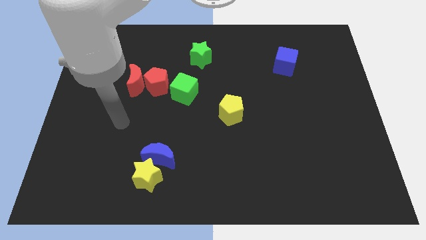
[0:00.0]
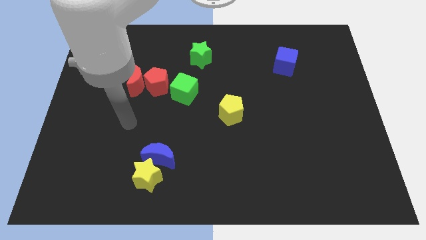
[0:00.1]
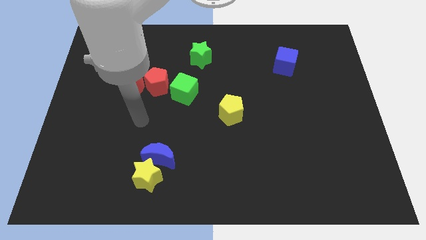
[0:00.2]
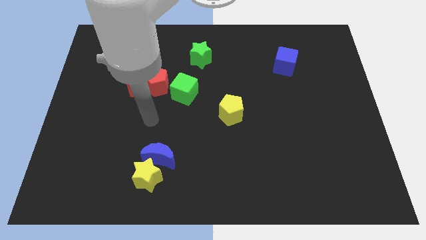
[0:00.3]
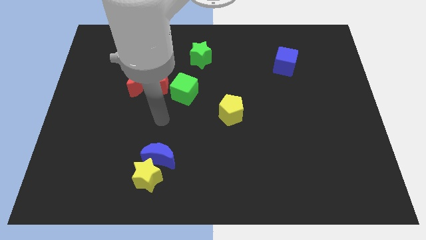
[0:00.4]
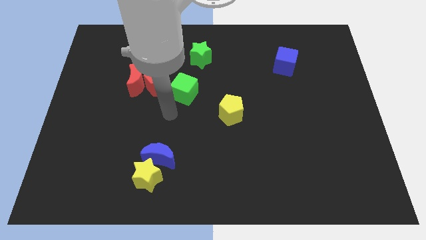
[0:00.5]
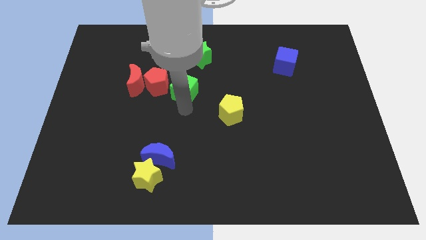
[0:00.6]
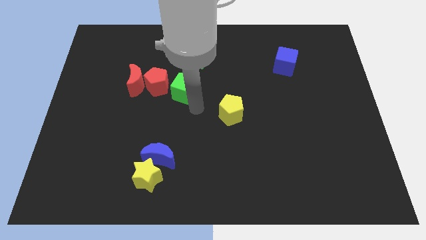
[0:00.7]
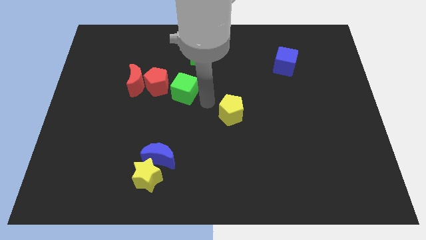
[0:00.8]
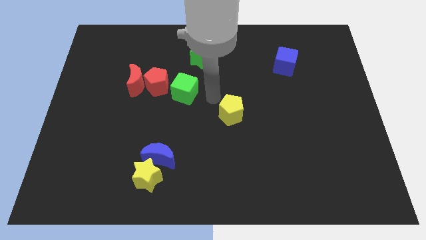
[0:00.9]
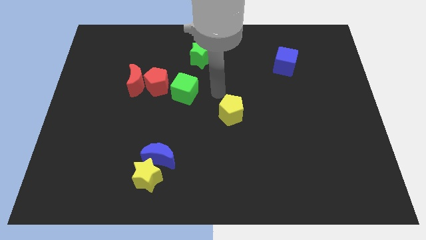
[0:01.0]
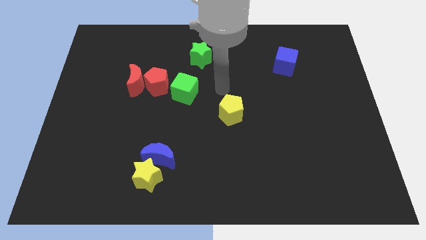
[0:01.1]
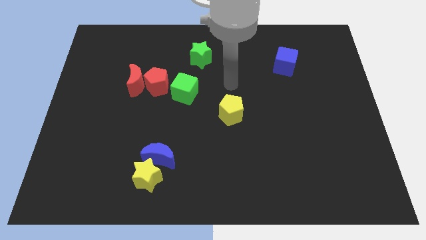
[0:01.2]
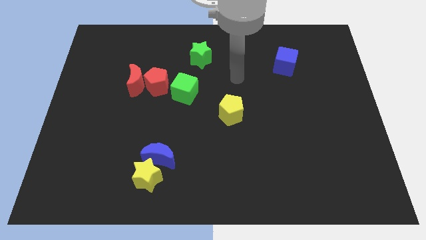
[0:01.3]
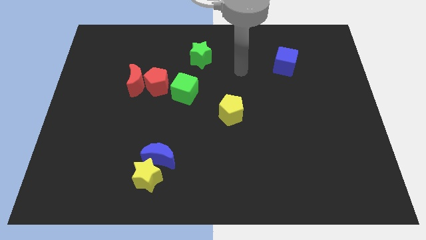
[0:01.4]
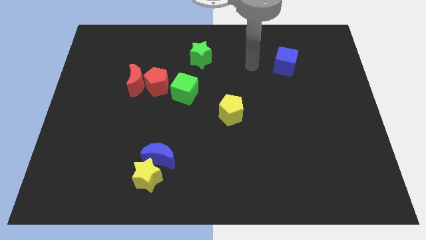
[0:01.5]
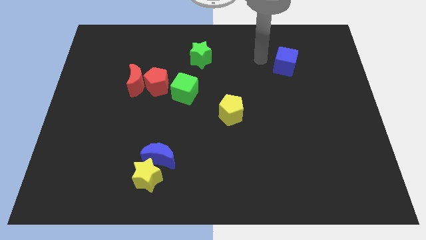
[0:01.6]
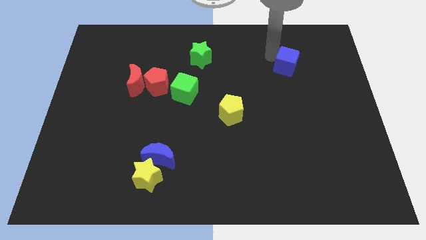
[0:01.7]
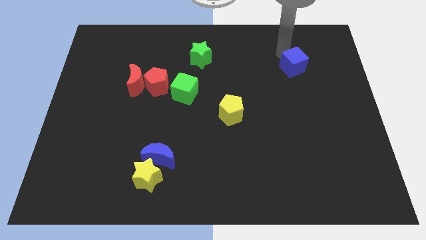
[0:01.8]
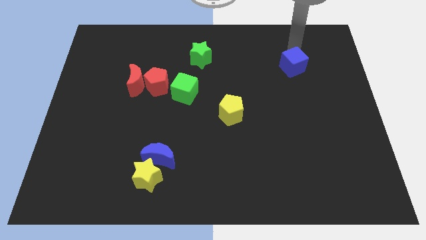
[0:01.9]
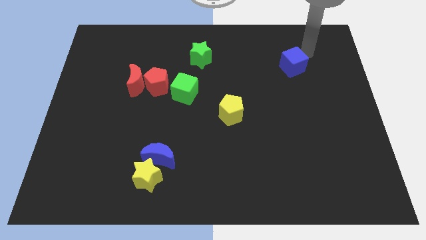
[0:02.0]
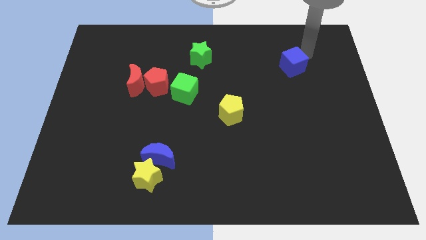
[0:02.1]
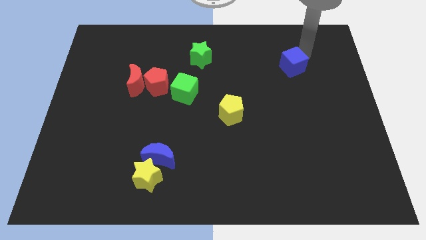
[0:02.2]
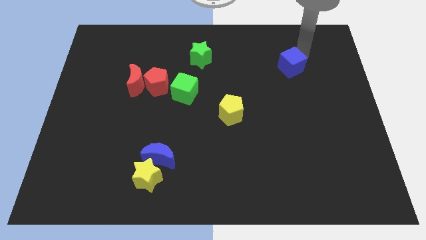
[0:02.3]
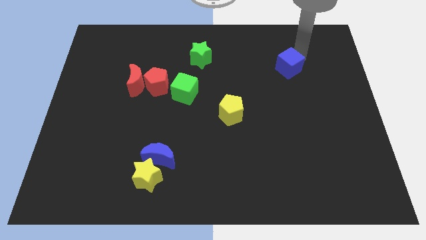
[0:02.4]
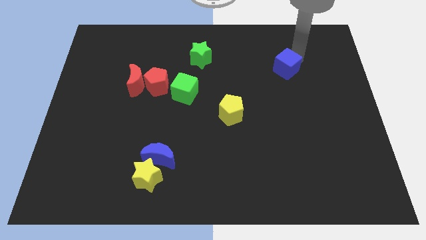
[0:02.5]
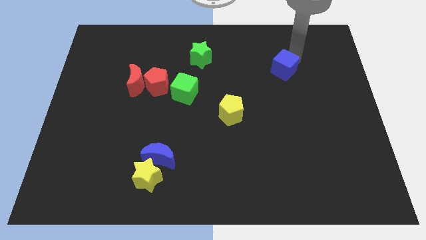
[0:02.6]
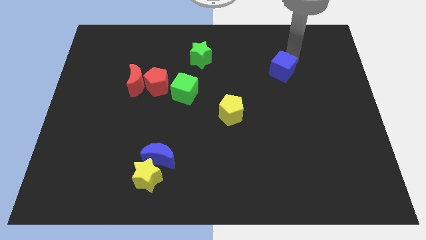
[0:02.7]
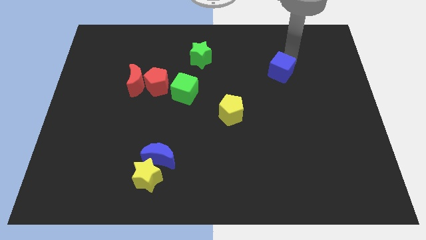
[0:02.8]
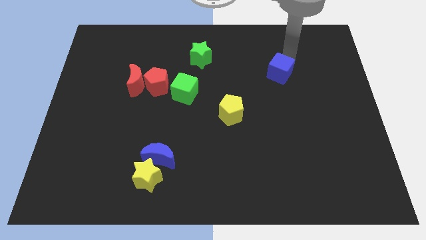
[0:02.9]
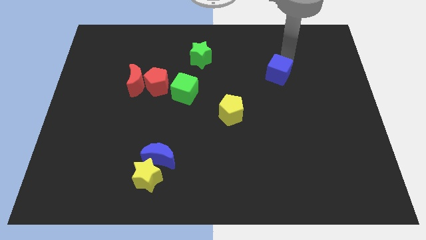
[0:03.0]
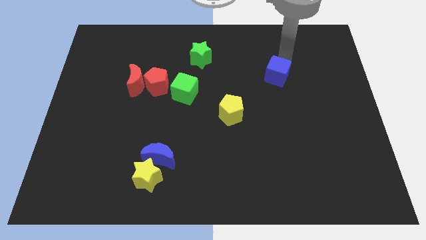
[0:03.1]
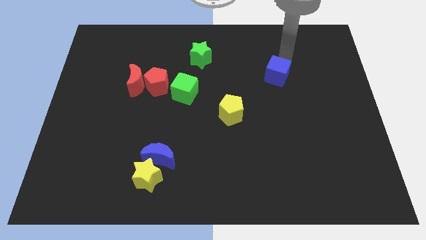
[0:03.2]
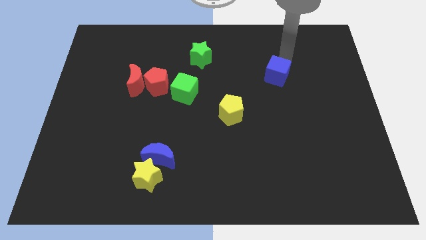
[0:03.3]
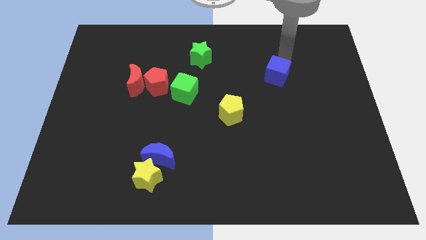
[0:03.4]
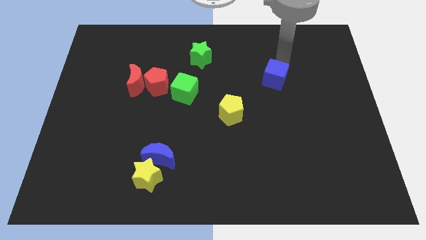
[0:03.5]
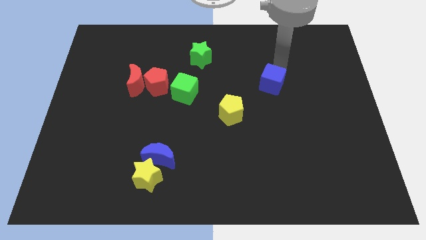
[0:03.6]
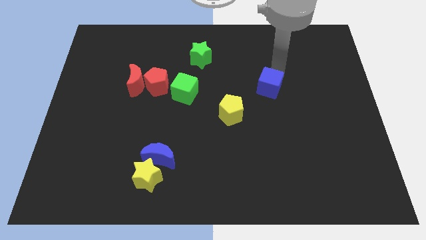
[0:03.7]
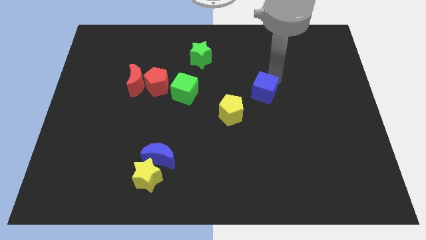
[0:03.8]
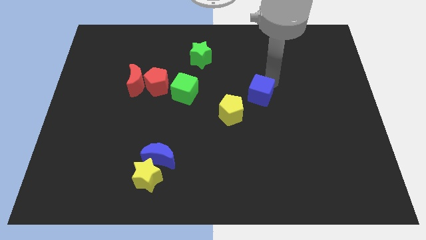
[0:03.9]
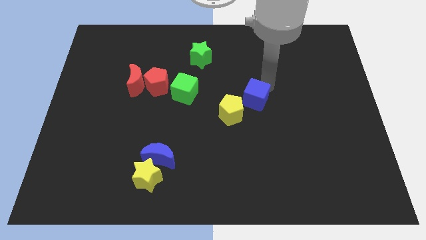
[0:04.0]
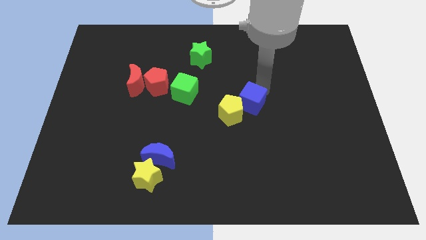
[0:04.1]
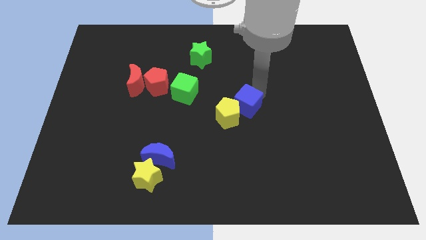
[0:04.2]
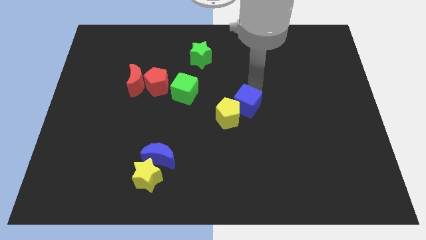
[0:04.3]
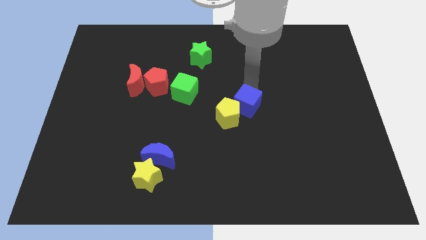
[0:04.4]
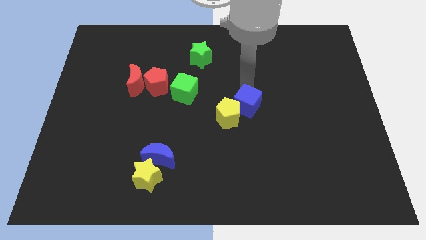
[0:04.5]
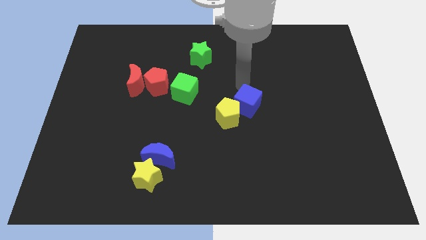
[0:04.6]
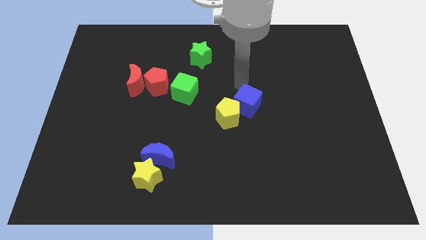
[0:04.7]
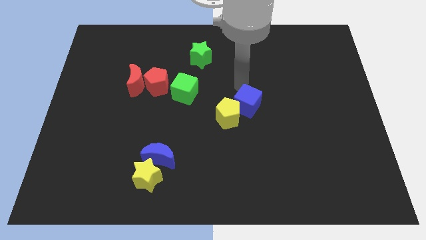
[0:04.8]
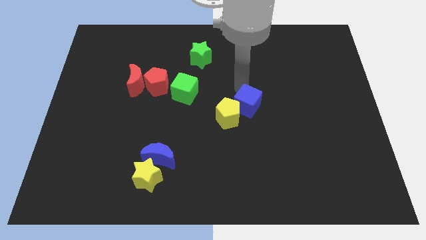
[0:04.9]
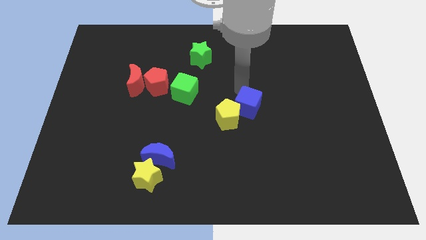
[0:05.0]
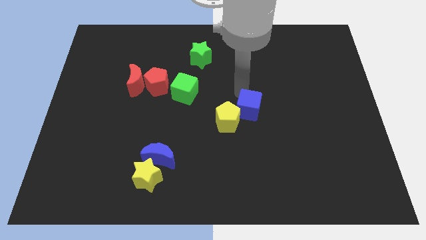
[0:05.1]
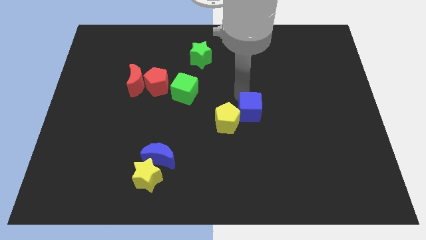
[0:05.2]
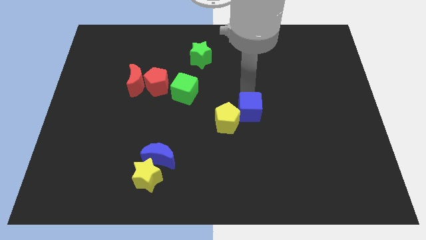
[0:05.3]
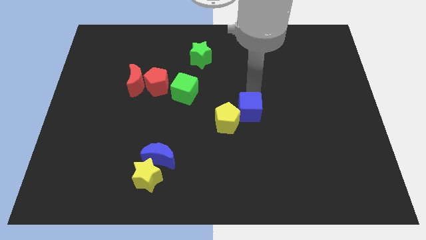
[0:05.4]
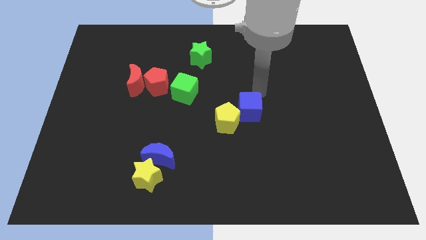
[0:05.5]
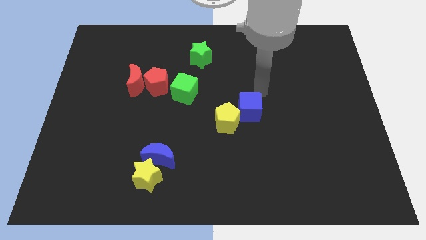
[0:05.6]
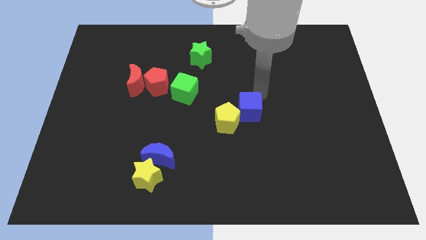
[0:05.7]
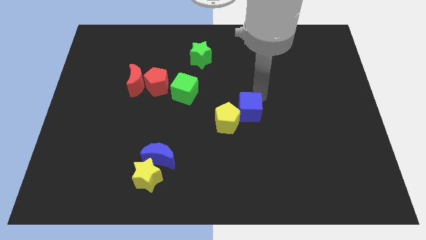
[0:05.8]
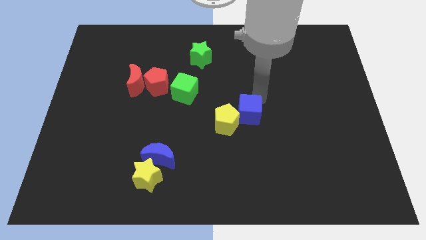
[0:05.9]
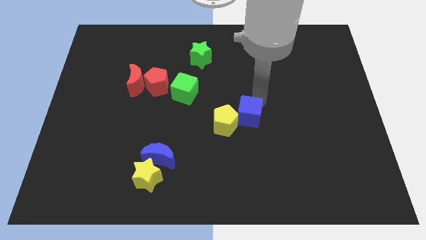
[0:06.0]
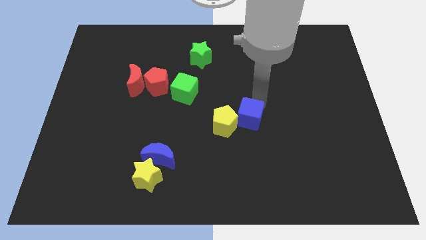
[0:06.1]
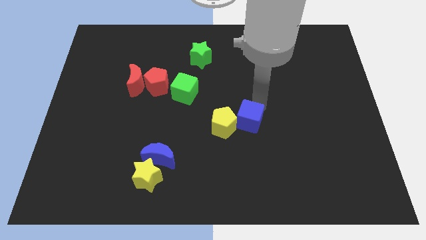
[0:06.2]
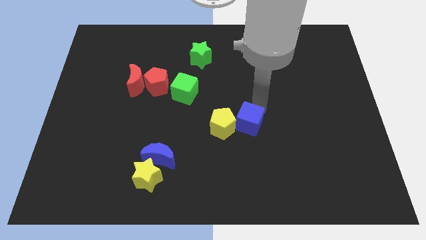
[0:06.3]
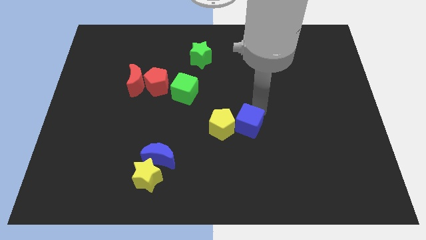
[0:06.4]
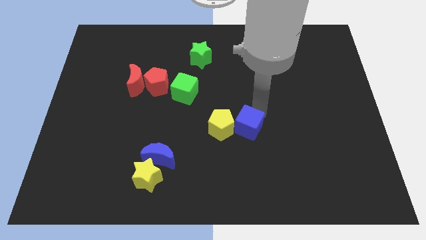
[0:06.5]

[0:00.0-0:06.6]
slide the blue cube down and to the left diagonally

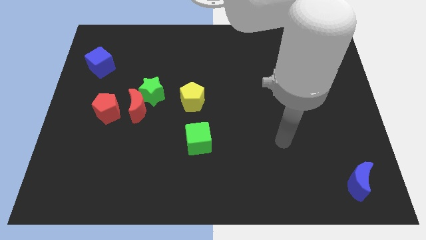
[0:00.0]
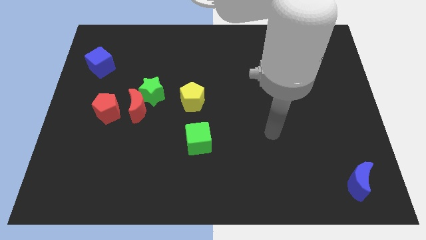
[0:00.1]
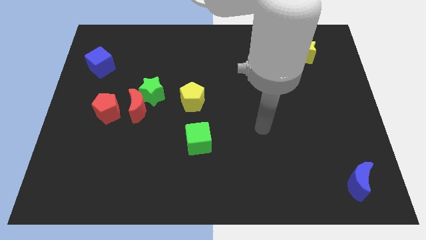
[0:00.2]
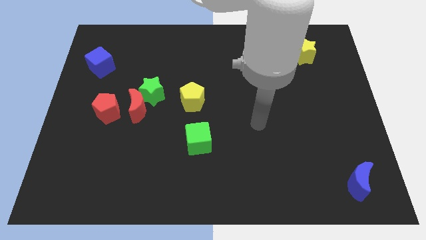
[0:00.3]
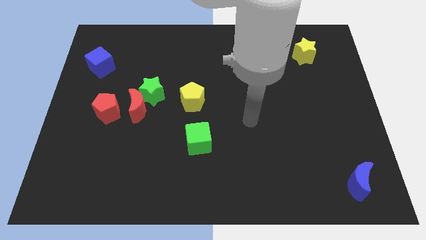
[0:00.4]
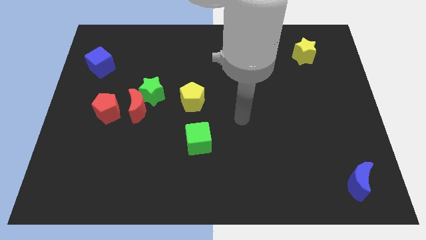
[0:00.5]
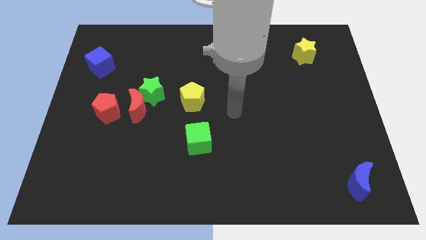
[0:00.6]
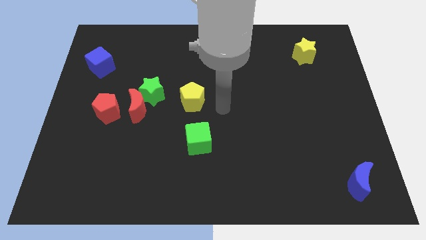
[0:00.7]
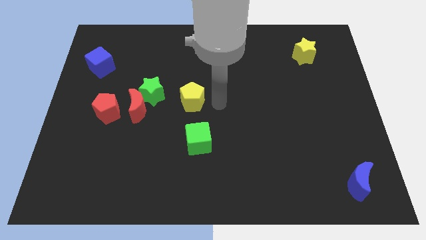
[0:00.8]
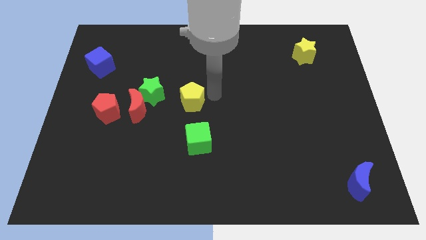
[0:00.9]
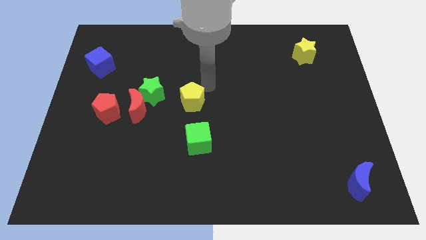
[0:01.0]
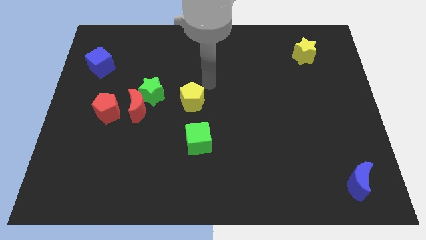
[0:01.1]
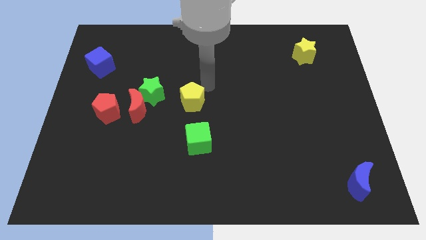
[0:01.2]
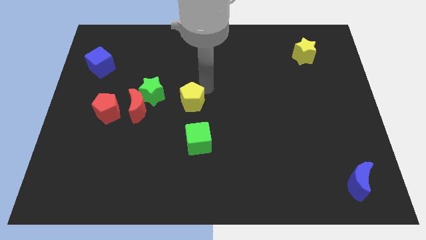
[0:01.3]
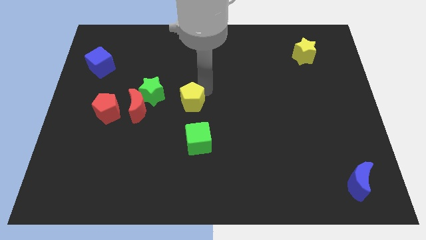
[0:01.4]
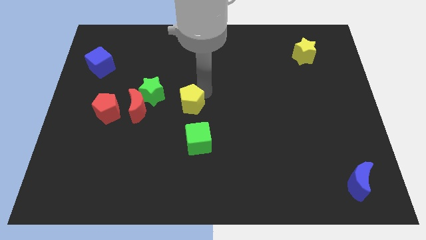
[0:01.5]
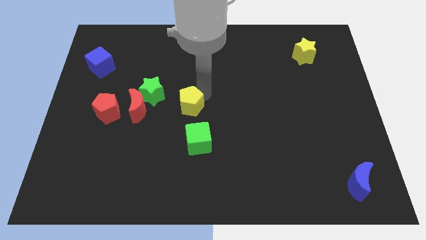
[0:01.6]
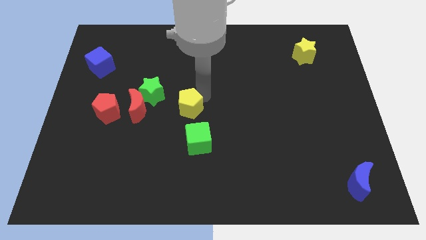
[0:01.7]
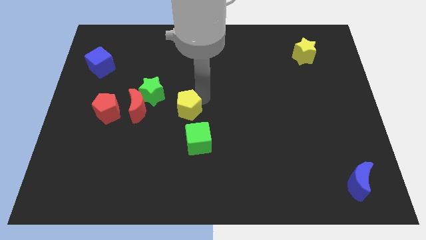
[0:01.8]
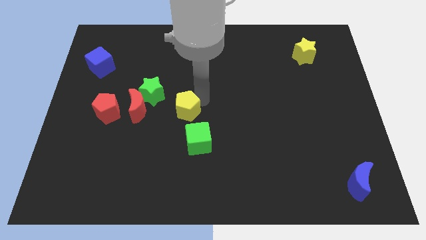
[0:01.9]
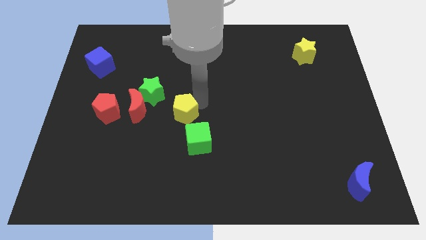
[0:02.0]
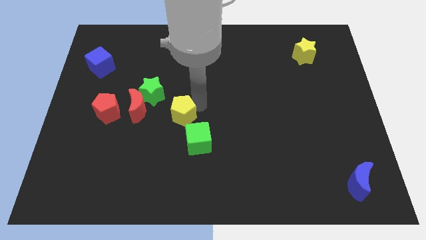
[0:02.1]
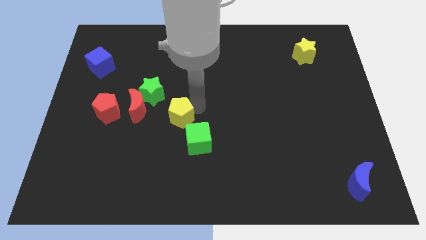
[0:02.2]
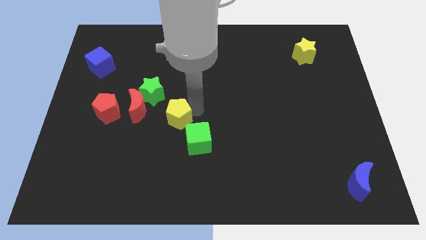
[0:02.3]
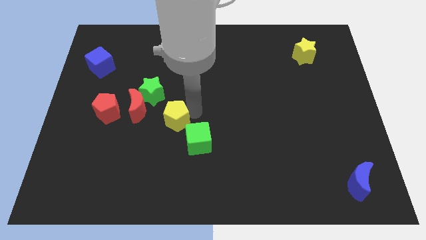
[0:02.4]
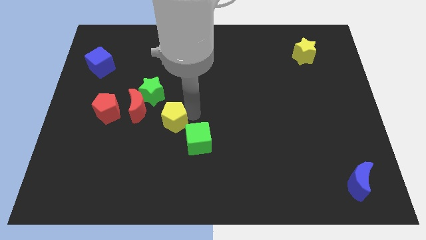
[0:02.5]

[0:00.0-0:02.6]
push the yellow pentagon downwards and then to the left a bit
